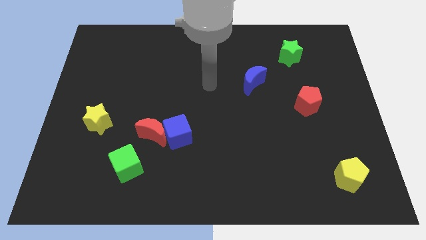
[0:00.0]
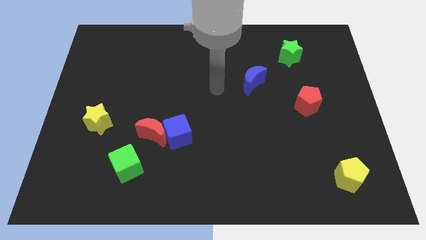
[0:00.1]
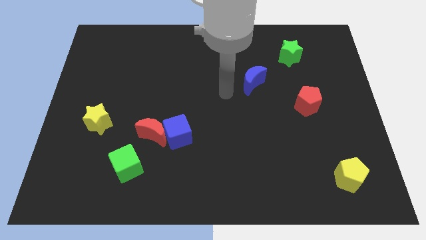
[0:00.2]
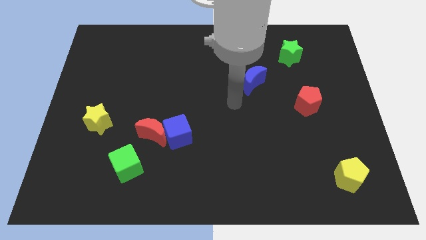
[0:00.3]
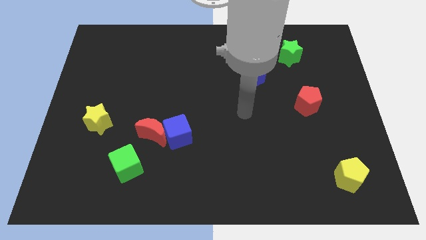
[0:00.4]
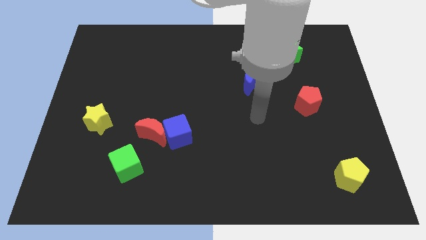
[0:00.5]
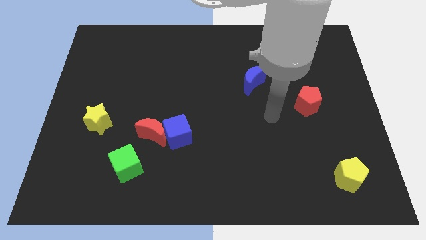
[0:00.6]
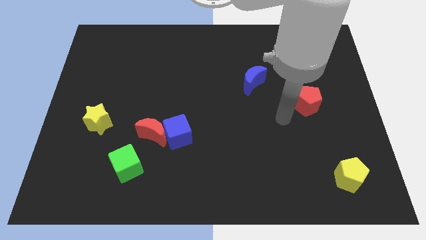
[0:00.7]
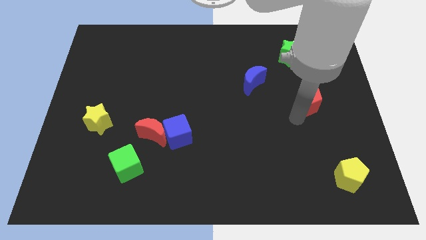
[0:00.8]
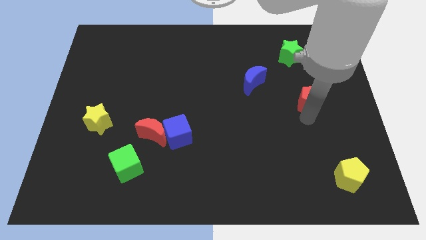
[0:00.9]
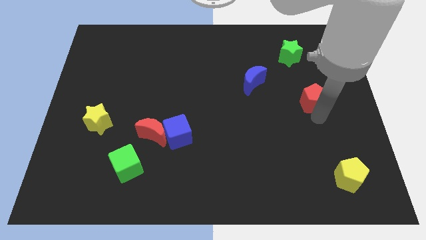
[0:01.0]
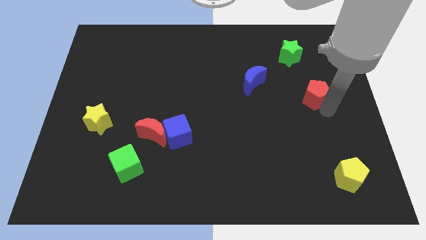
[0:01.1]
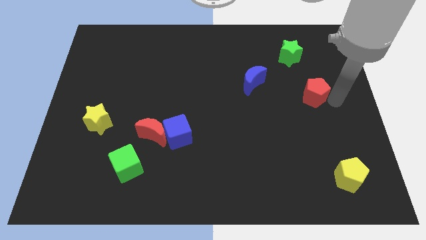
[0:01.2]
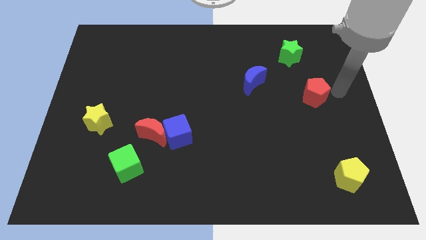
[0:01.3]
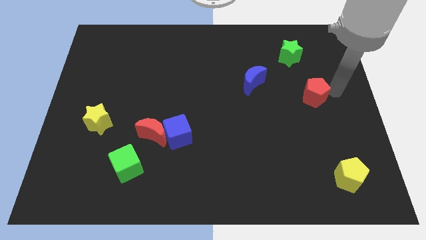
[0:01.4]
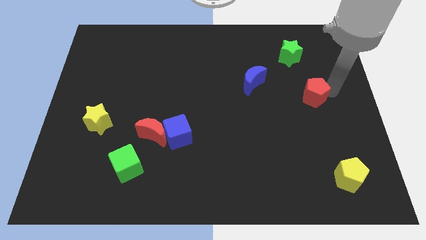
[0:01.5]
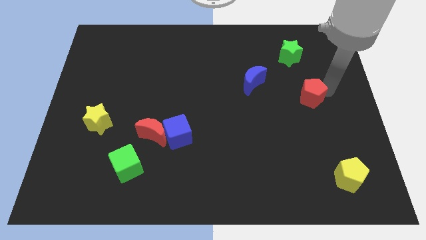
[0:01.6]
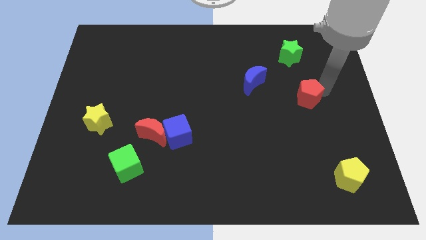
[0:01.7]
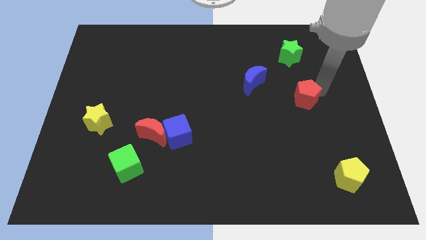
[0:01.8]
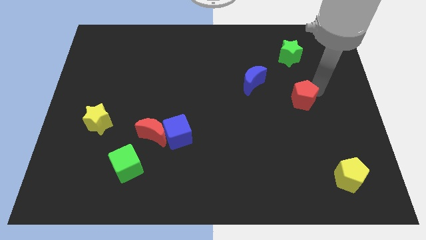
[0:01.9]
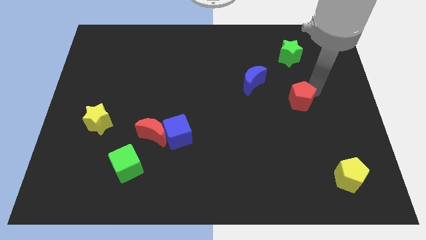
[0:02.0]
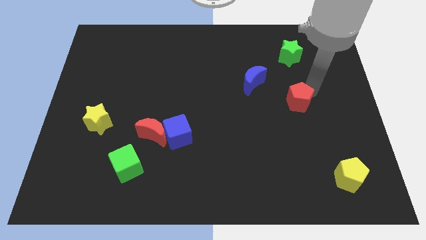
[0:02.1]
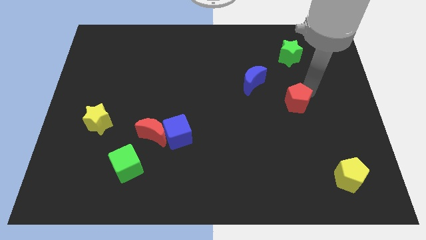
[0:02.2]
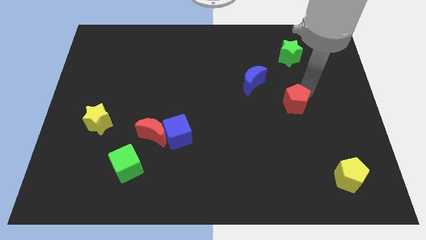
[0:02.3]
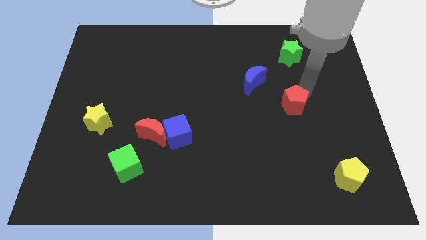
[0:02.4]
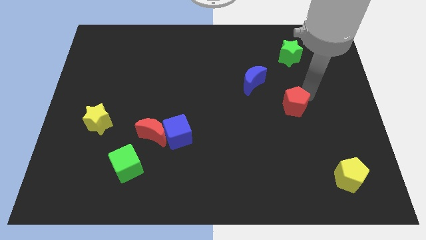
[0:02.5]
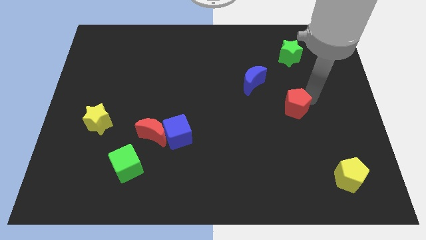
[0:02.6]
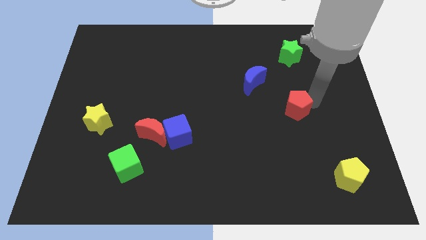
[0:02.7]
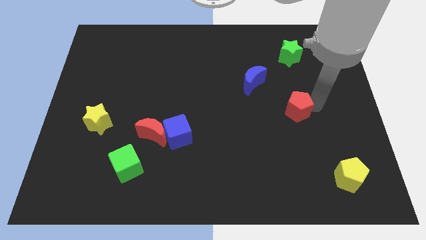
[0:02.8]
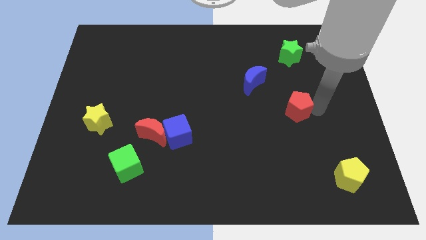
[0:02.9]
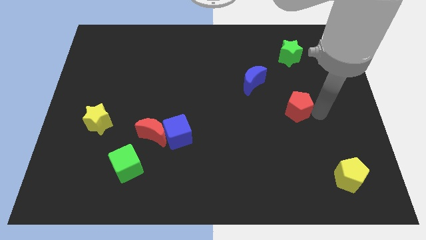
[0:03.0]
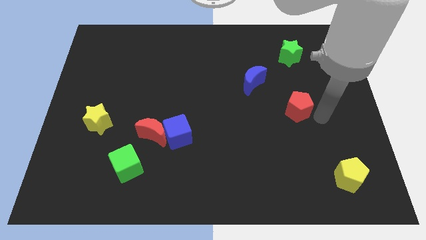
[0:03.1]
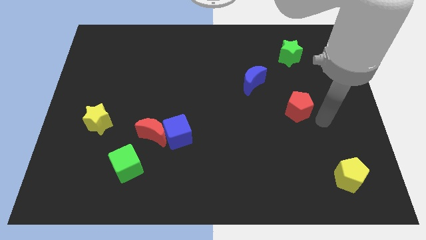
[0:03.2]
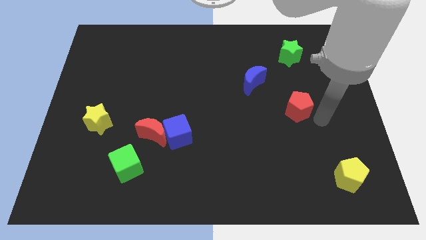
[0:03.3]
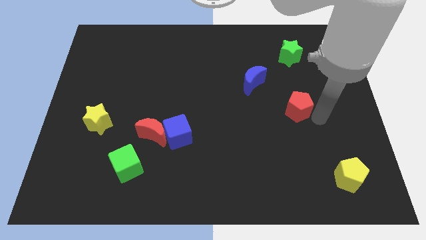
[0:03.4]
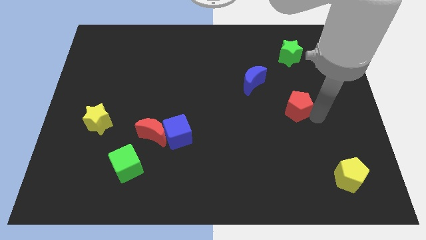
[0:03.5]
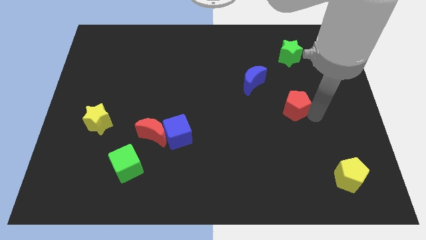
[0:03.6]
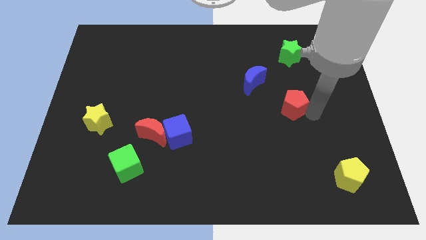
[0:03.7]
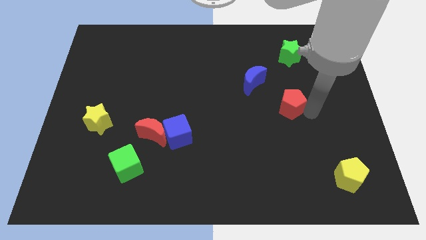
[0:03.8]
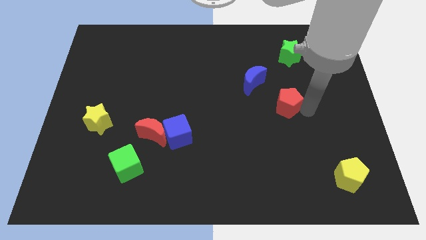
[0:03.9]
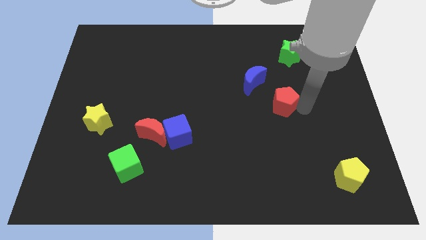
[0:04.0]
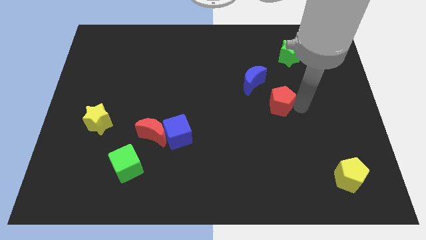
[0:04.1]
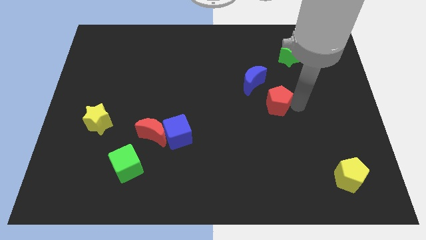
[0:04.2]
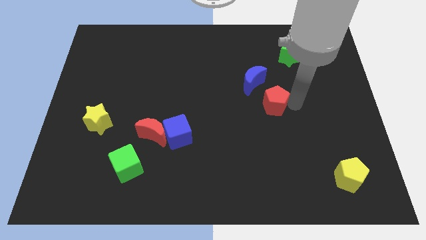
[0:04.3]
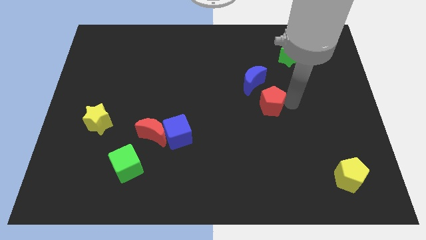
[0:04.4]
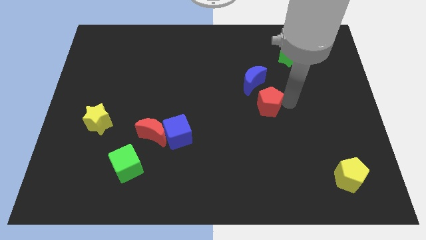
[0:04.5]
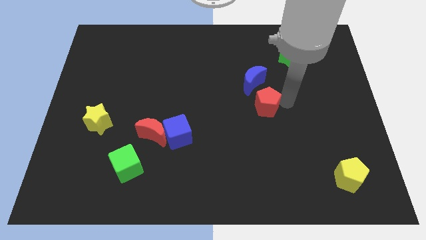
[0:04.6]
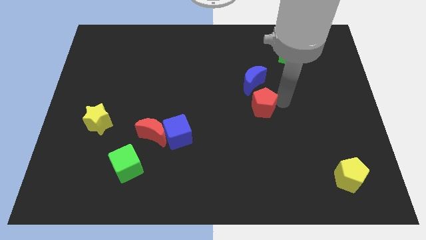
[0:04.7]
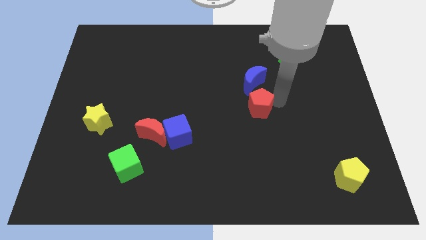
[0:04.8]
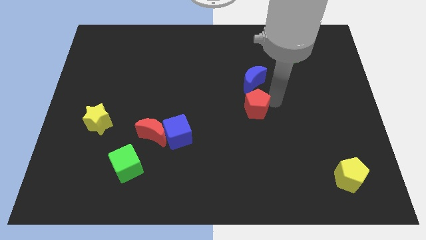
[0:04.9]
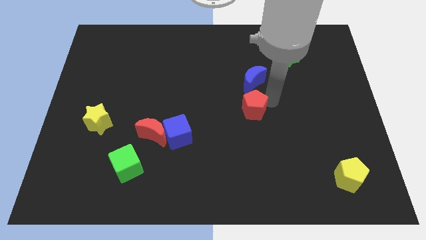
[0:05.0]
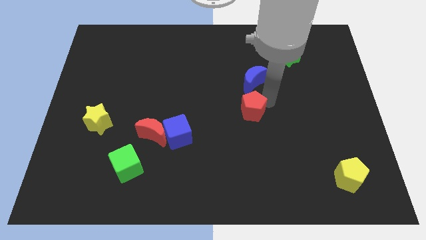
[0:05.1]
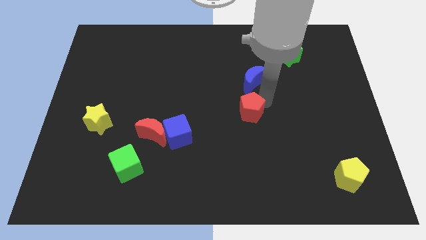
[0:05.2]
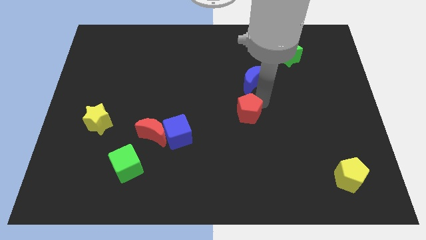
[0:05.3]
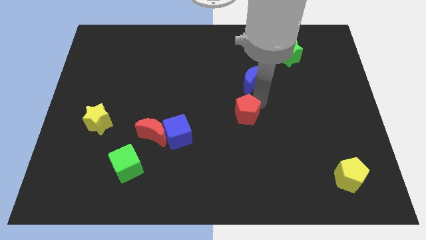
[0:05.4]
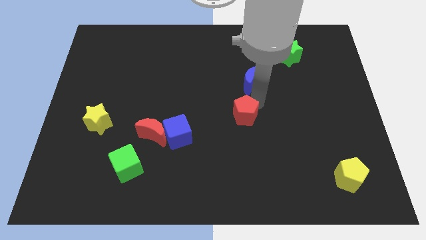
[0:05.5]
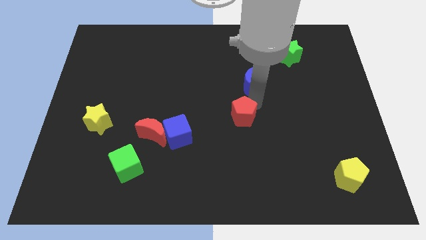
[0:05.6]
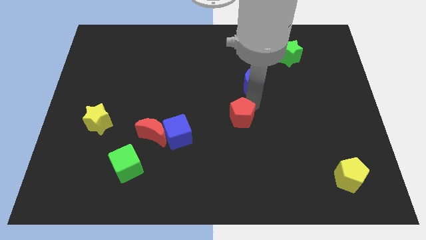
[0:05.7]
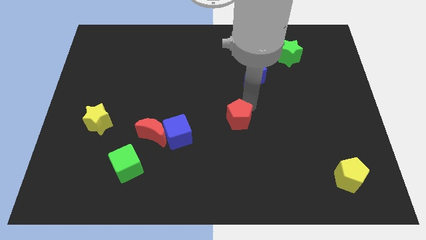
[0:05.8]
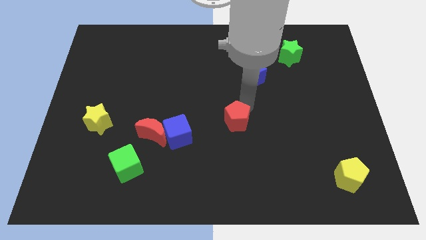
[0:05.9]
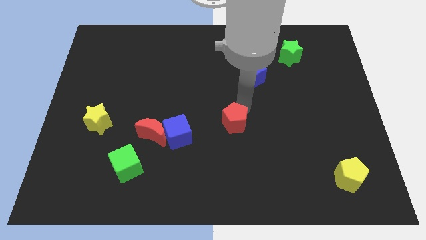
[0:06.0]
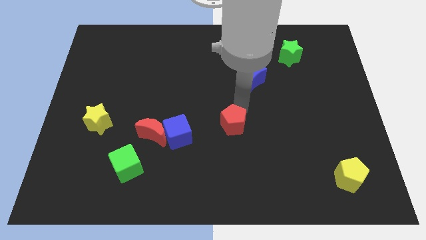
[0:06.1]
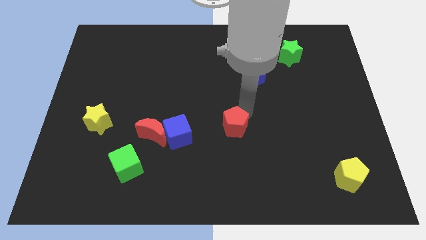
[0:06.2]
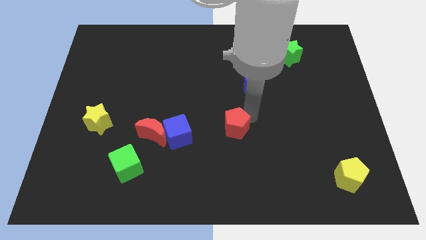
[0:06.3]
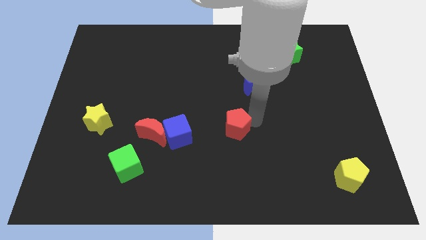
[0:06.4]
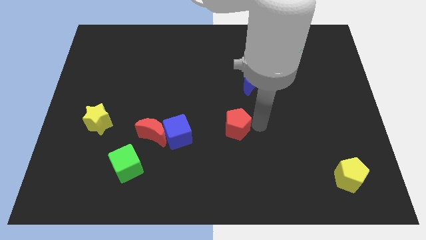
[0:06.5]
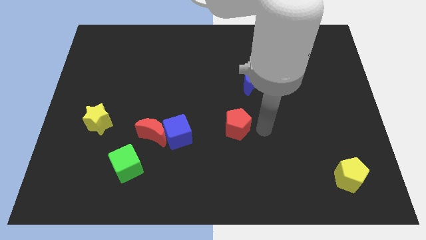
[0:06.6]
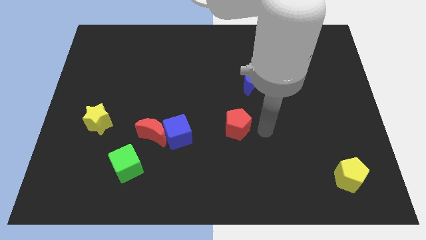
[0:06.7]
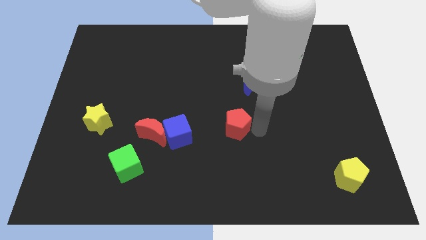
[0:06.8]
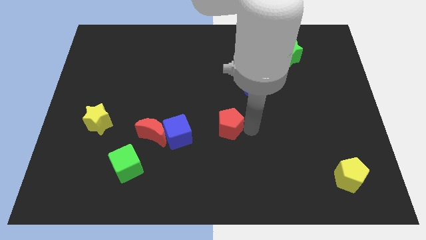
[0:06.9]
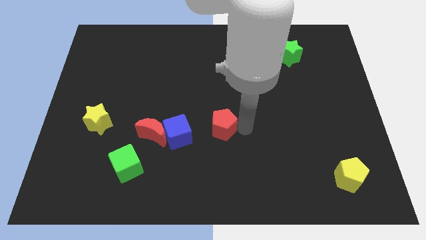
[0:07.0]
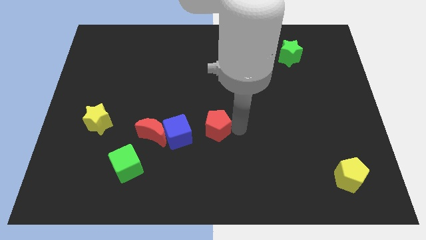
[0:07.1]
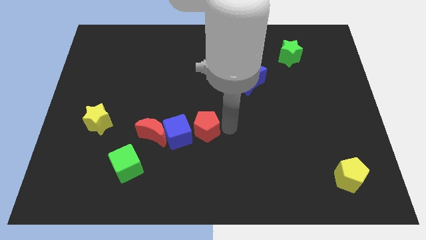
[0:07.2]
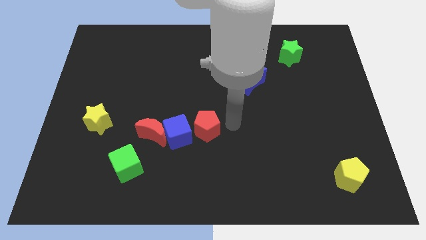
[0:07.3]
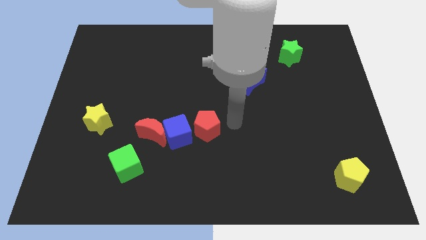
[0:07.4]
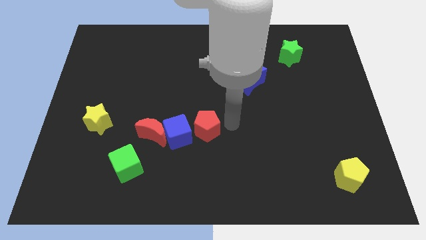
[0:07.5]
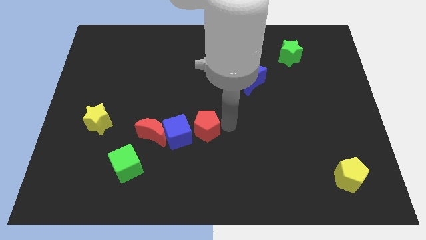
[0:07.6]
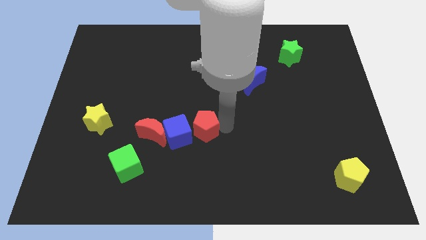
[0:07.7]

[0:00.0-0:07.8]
put the red pentagon towards the blue cube
